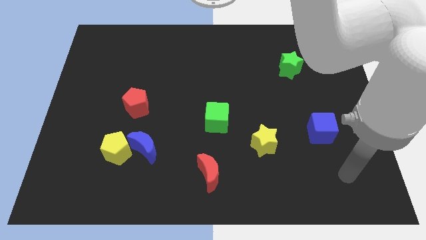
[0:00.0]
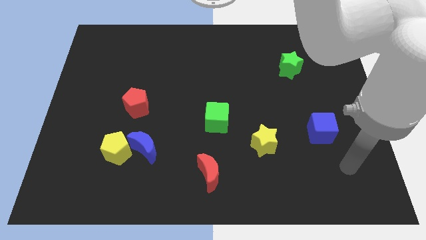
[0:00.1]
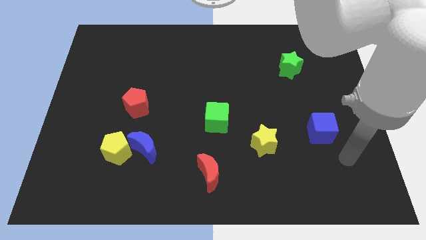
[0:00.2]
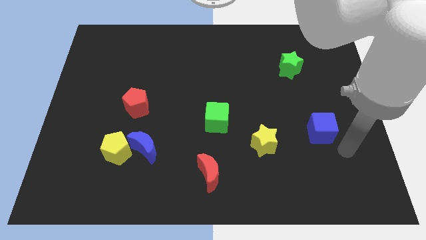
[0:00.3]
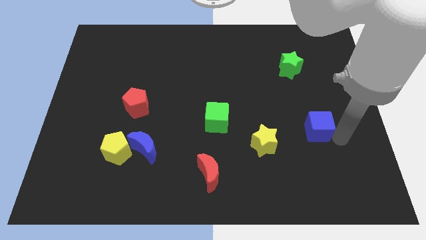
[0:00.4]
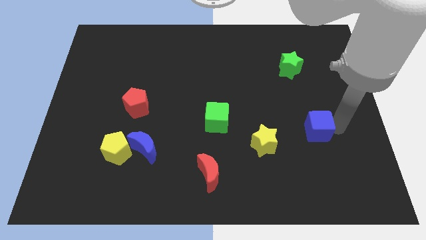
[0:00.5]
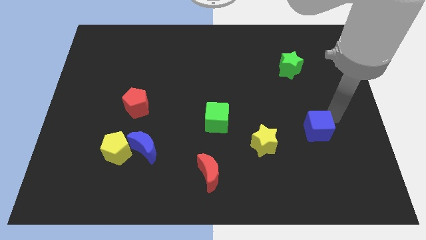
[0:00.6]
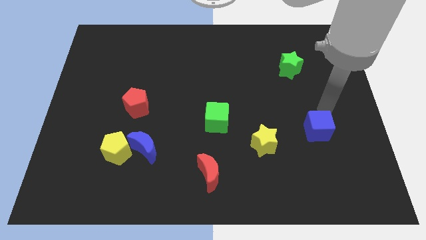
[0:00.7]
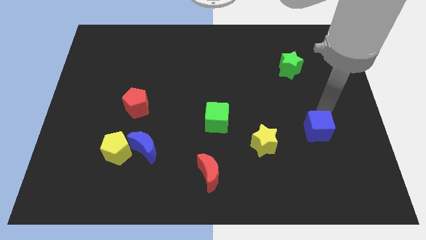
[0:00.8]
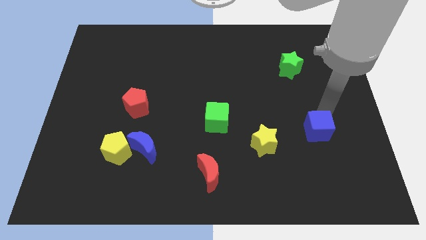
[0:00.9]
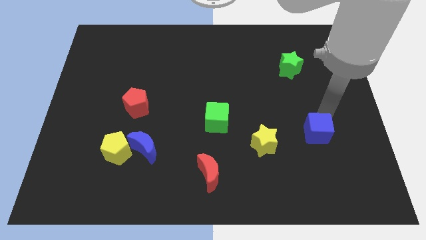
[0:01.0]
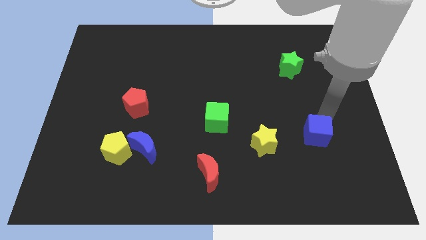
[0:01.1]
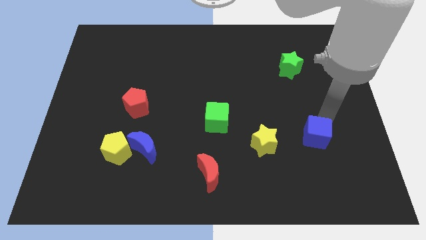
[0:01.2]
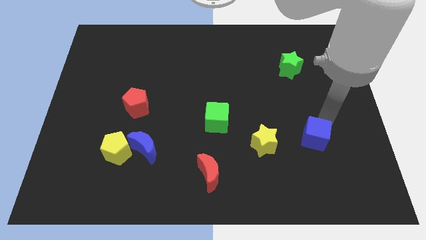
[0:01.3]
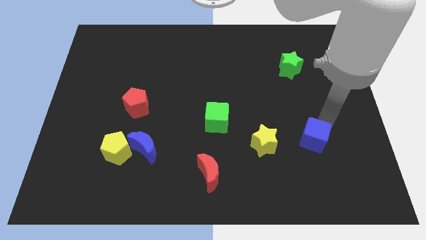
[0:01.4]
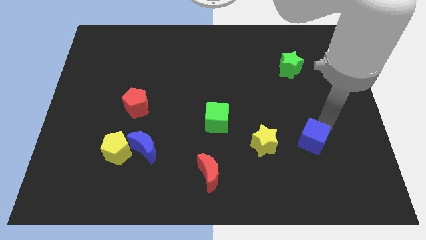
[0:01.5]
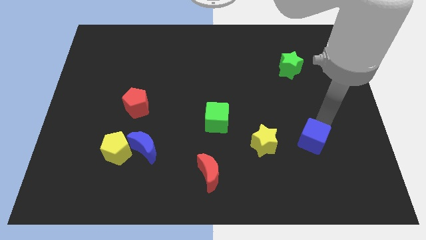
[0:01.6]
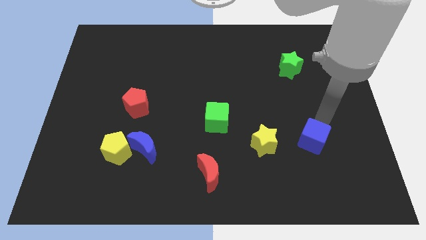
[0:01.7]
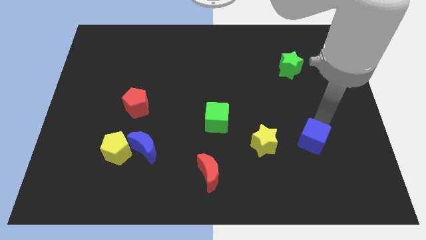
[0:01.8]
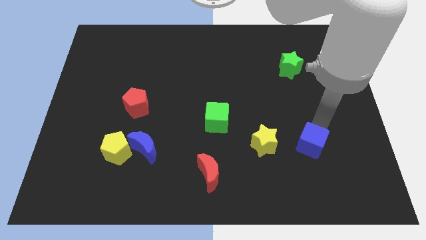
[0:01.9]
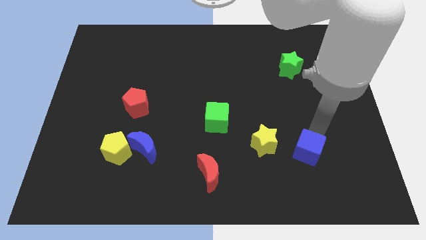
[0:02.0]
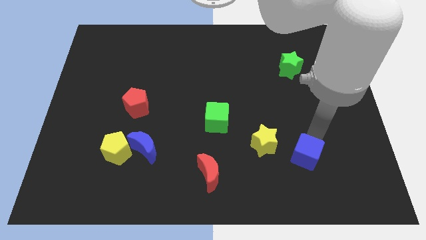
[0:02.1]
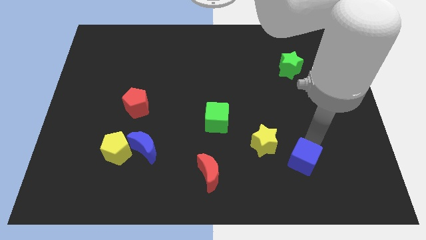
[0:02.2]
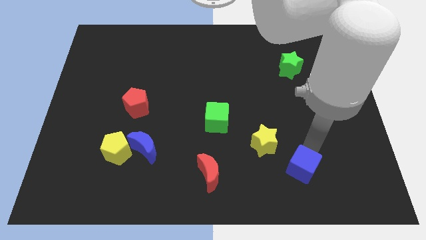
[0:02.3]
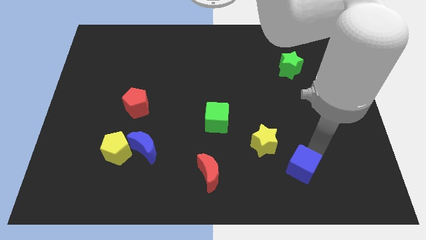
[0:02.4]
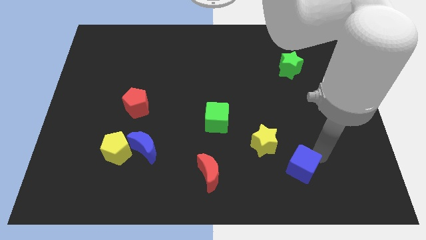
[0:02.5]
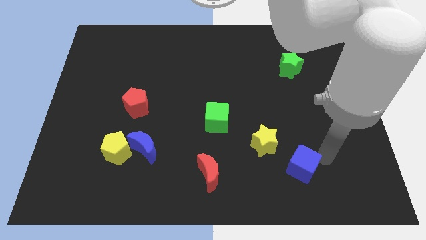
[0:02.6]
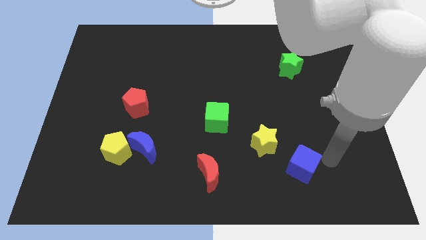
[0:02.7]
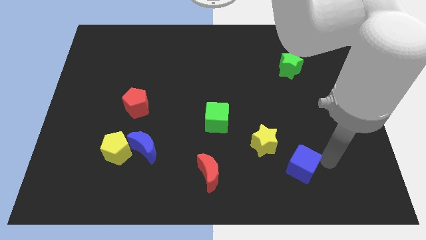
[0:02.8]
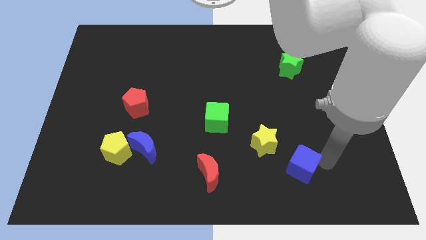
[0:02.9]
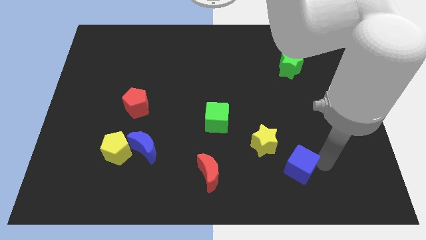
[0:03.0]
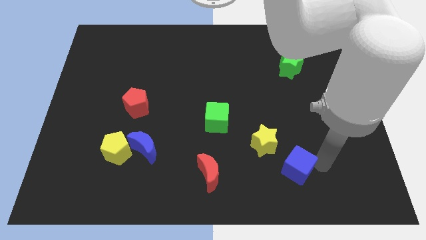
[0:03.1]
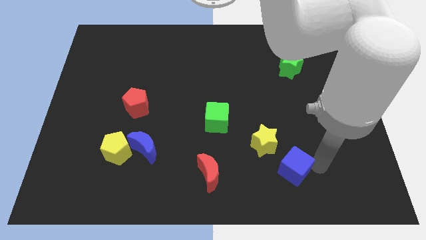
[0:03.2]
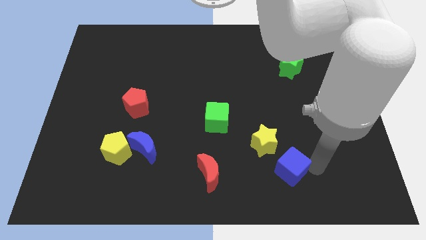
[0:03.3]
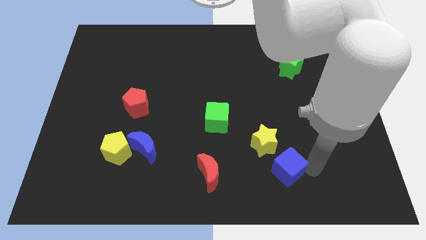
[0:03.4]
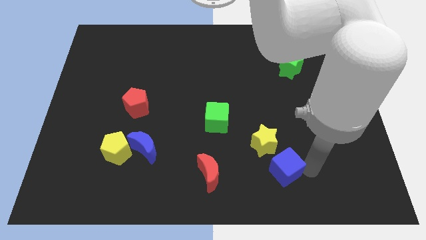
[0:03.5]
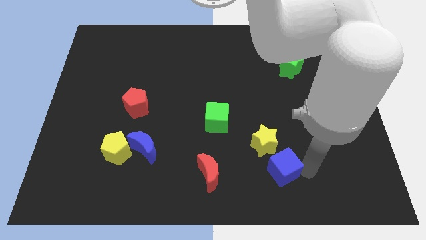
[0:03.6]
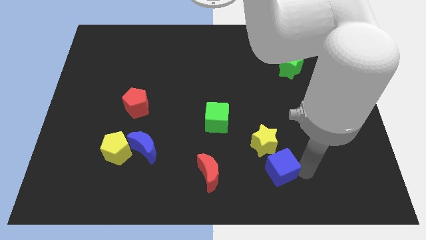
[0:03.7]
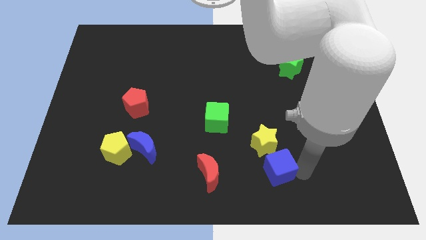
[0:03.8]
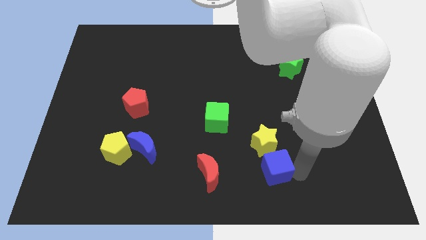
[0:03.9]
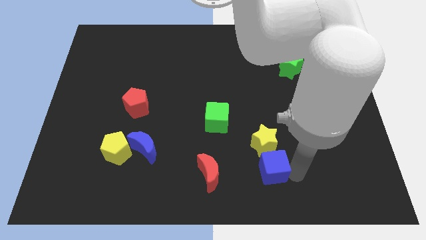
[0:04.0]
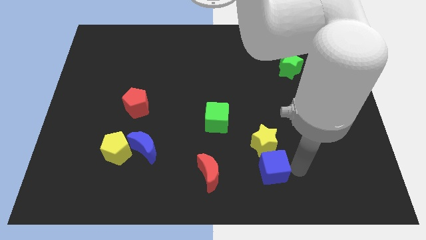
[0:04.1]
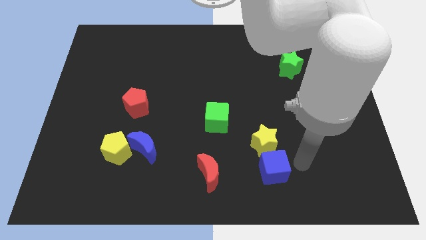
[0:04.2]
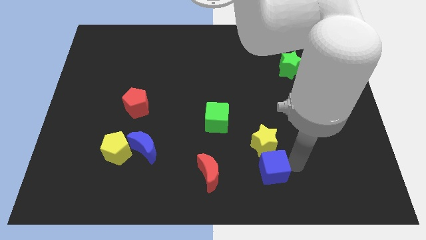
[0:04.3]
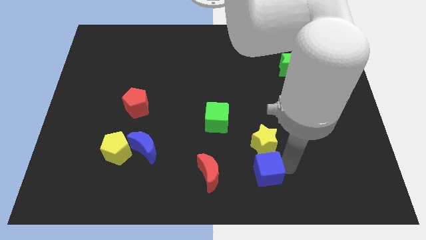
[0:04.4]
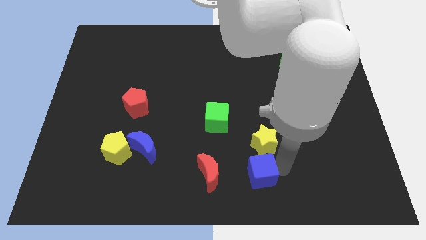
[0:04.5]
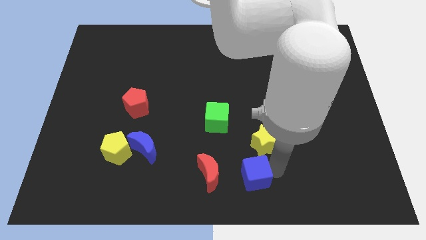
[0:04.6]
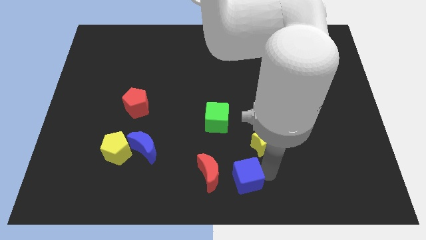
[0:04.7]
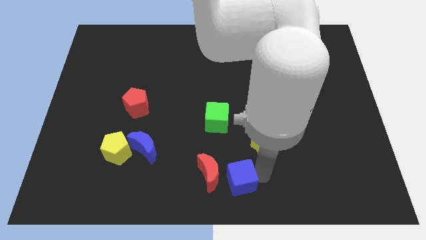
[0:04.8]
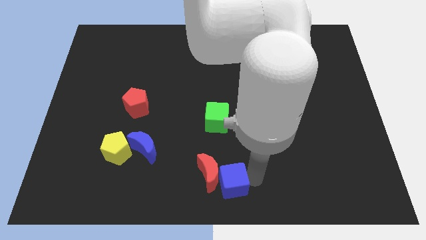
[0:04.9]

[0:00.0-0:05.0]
move the blue cube close to the red moon

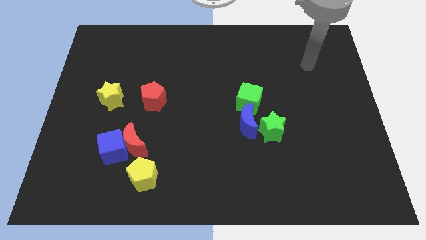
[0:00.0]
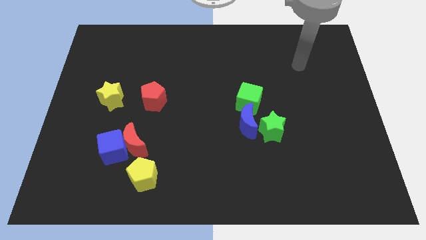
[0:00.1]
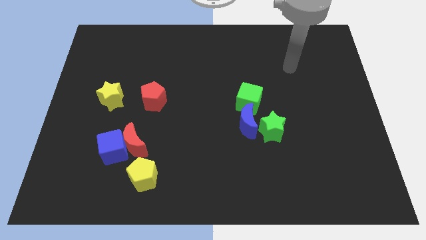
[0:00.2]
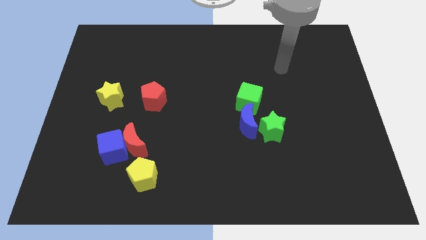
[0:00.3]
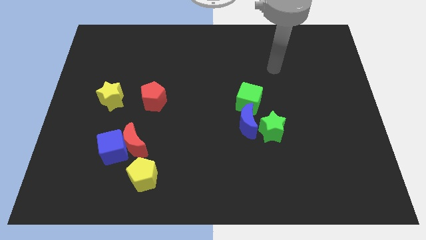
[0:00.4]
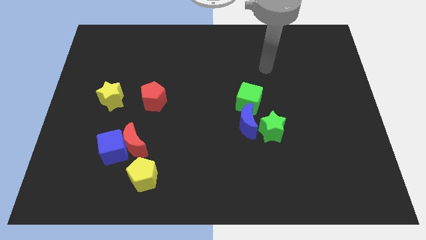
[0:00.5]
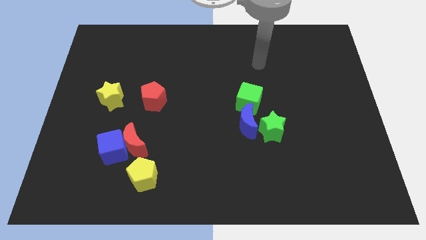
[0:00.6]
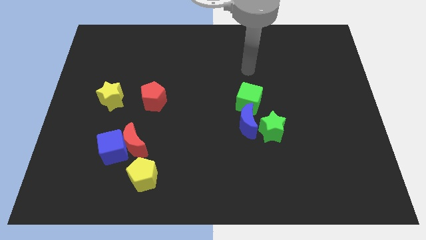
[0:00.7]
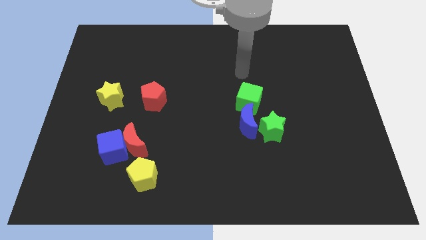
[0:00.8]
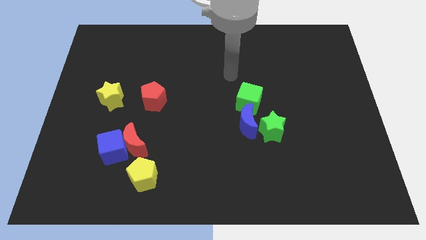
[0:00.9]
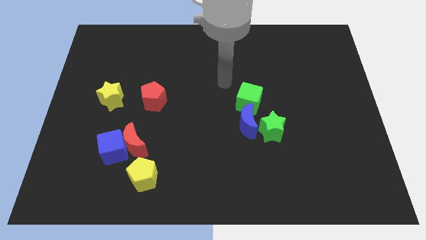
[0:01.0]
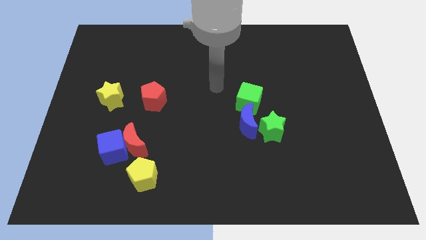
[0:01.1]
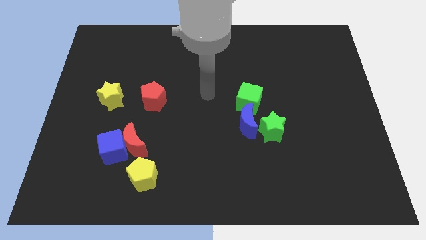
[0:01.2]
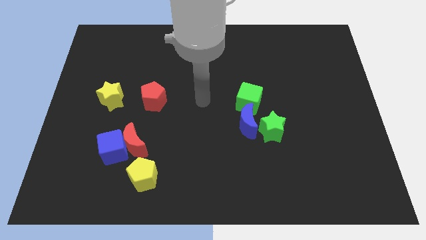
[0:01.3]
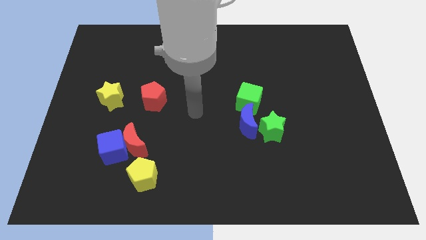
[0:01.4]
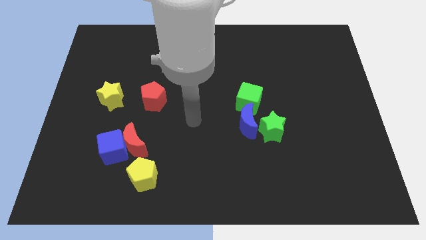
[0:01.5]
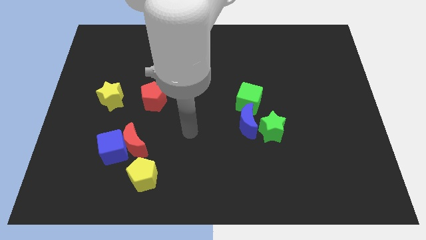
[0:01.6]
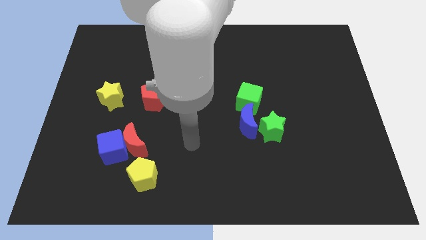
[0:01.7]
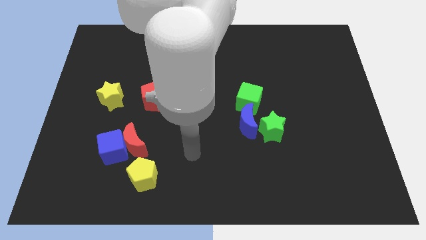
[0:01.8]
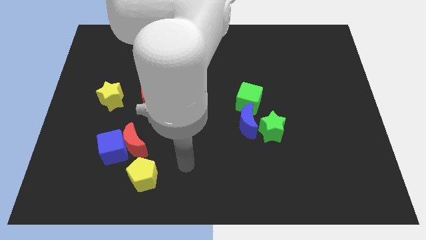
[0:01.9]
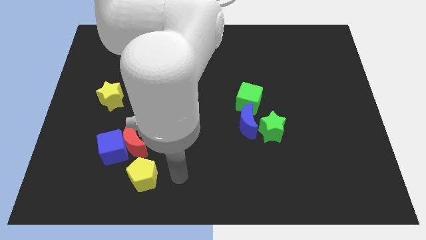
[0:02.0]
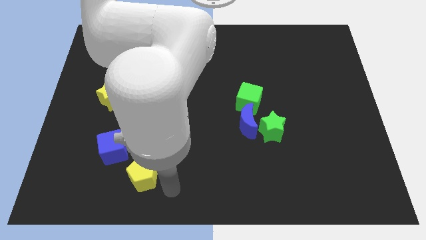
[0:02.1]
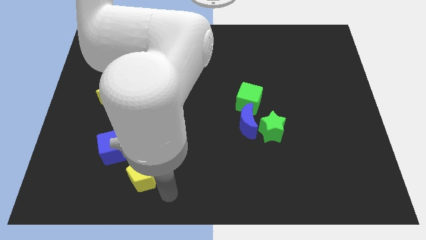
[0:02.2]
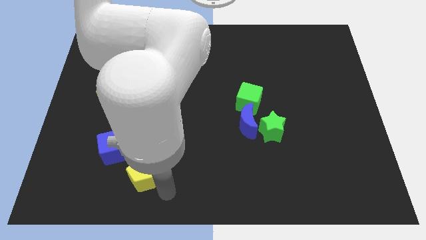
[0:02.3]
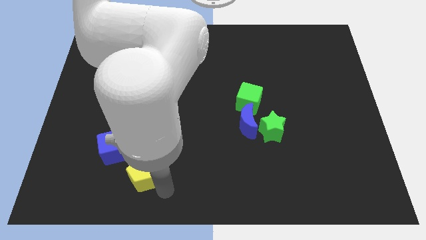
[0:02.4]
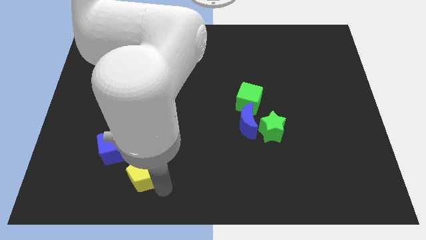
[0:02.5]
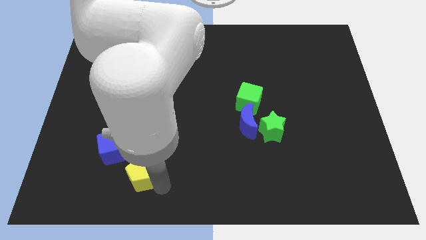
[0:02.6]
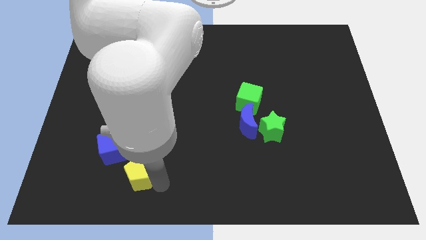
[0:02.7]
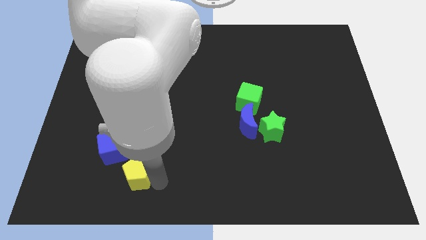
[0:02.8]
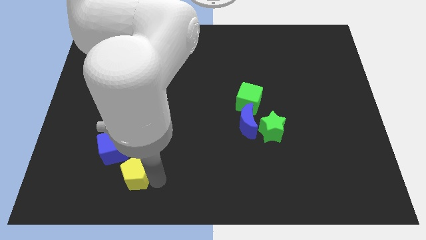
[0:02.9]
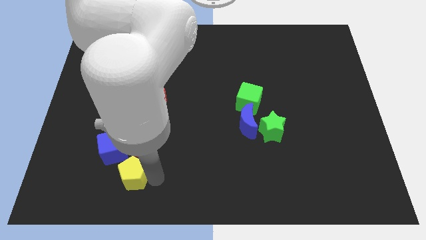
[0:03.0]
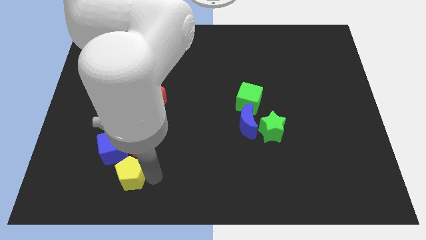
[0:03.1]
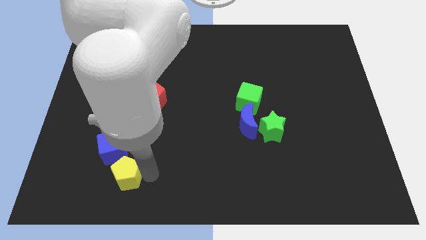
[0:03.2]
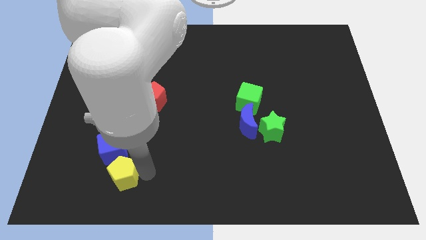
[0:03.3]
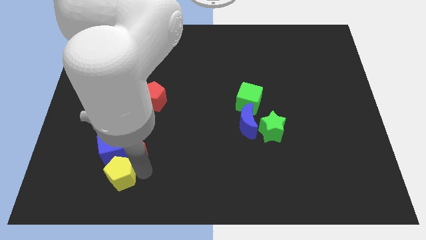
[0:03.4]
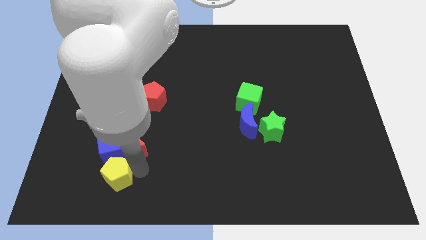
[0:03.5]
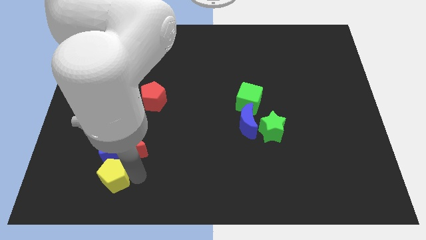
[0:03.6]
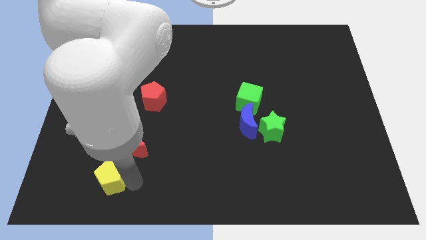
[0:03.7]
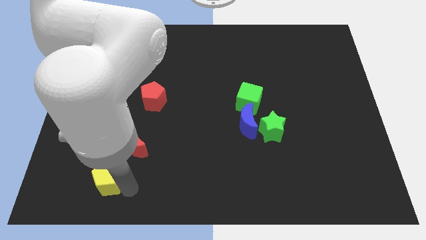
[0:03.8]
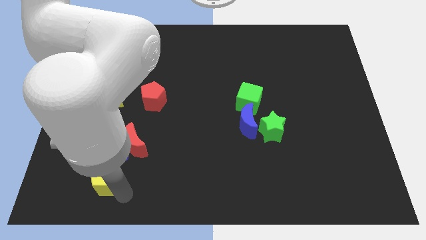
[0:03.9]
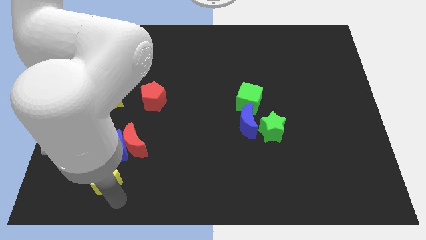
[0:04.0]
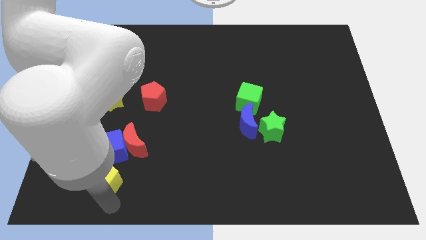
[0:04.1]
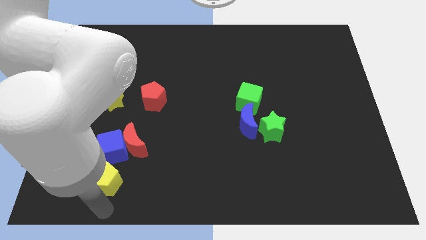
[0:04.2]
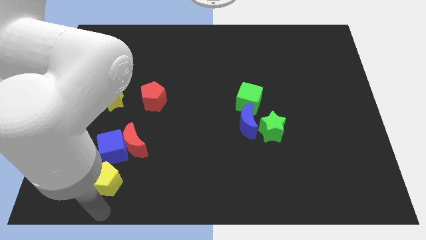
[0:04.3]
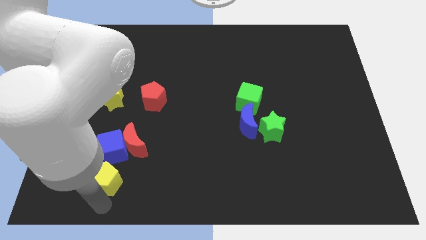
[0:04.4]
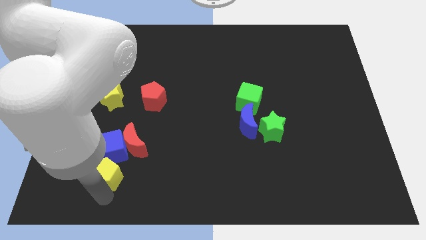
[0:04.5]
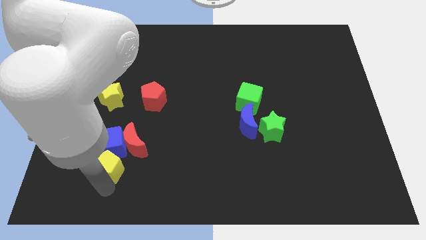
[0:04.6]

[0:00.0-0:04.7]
move the yellow pentagon next to the blue cube
